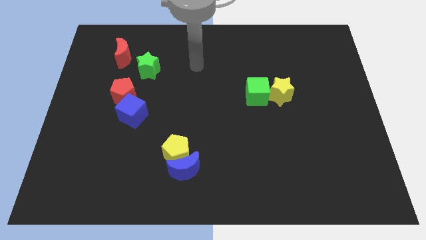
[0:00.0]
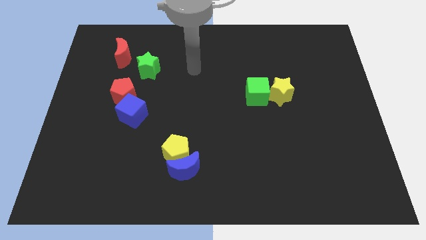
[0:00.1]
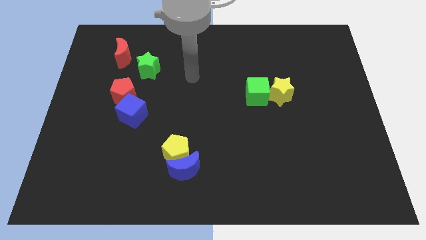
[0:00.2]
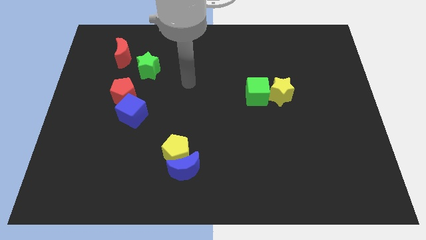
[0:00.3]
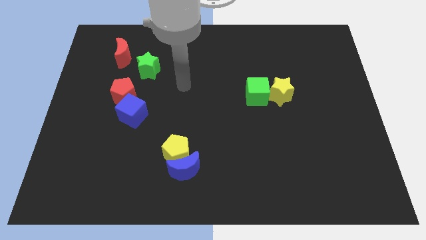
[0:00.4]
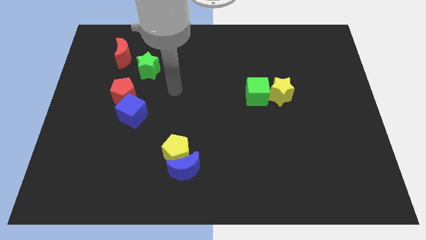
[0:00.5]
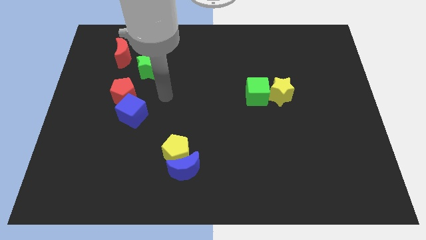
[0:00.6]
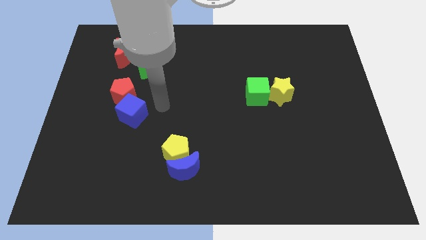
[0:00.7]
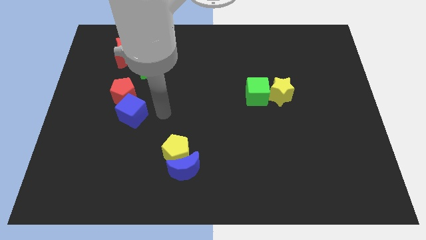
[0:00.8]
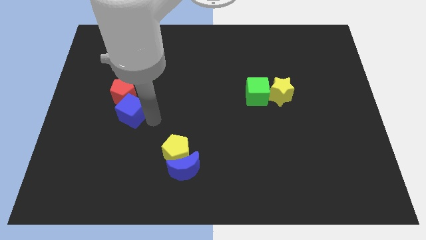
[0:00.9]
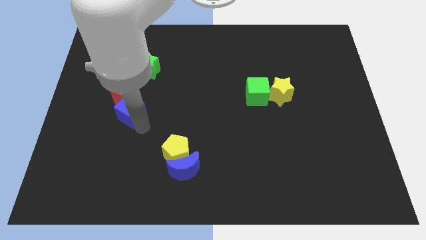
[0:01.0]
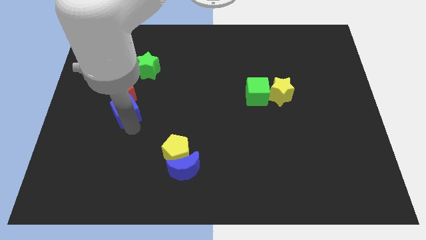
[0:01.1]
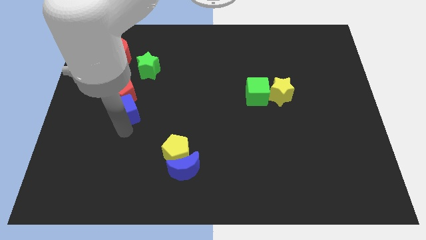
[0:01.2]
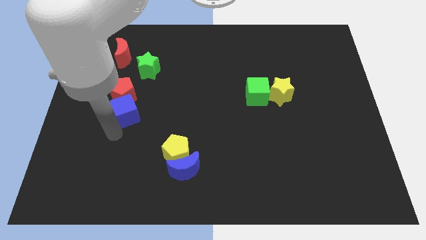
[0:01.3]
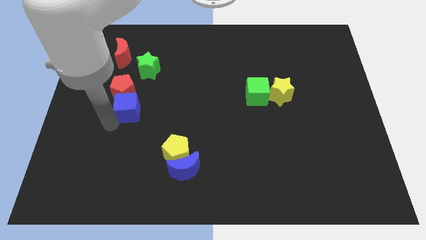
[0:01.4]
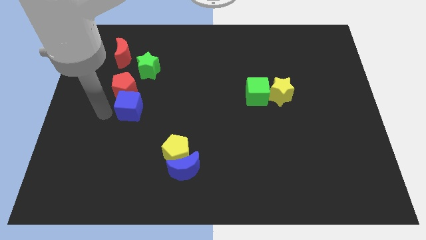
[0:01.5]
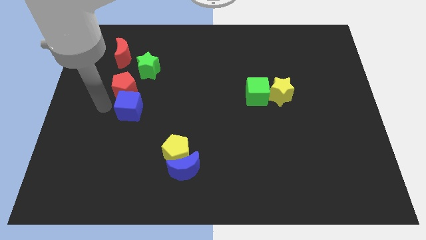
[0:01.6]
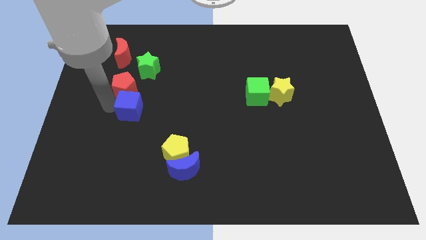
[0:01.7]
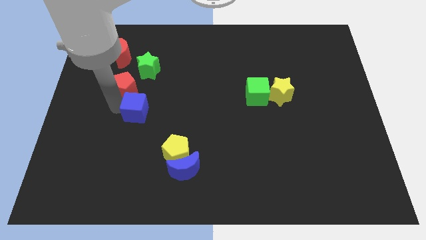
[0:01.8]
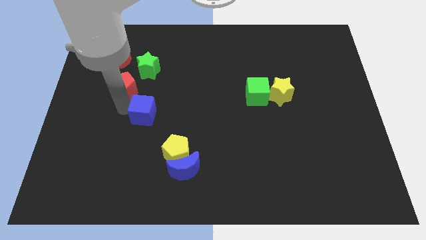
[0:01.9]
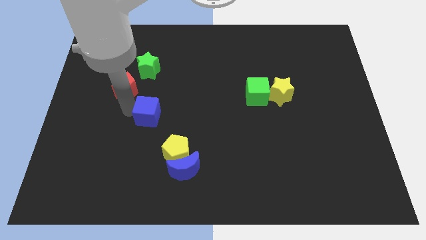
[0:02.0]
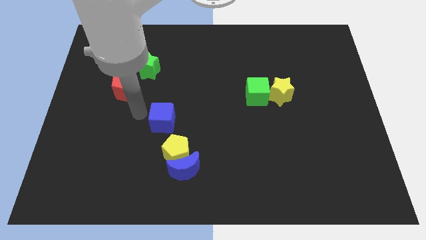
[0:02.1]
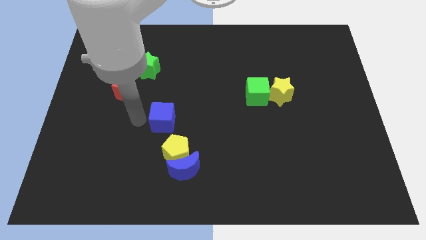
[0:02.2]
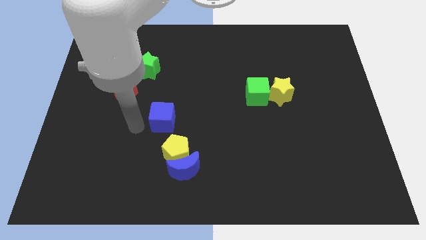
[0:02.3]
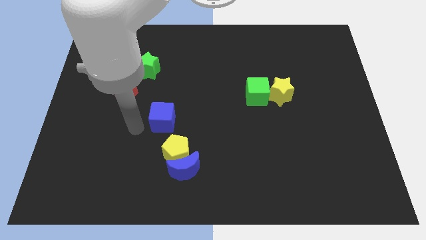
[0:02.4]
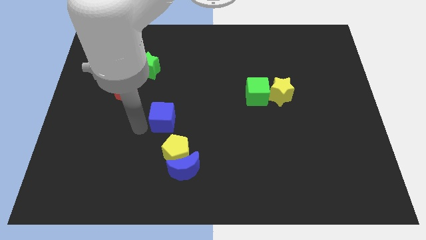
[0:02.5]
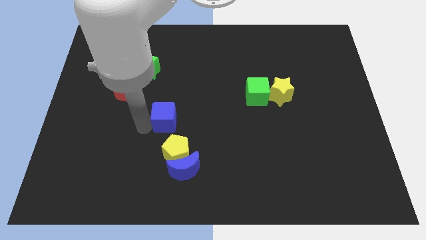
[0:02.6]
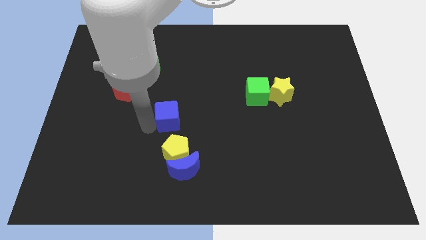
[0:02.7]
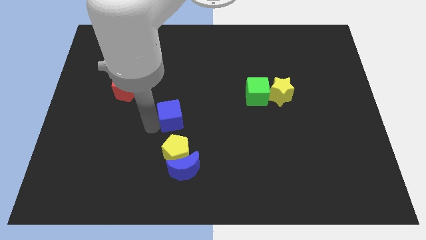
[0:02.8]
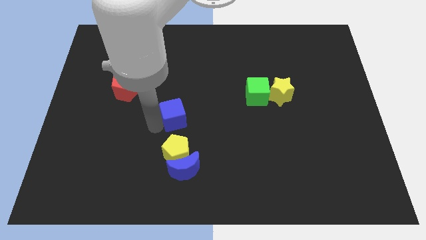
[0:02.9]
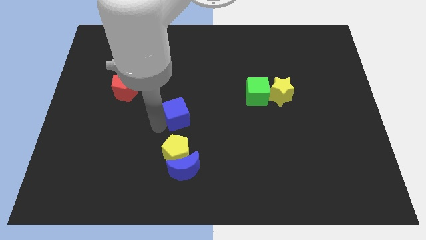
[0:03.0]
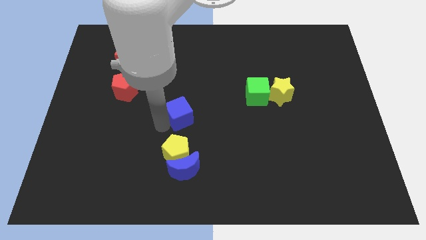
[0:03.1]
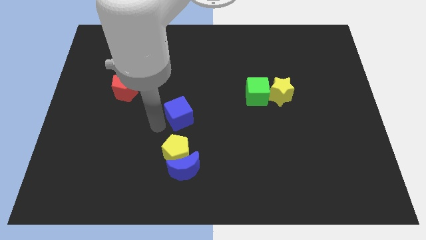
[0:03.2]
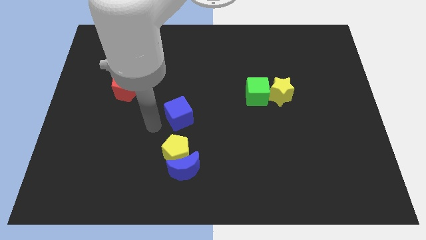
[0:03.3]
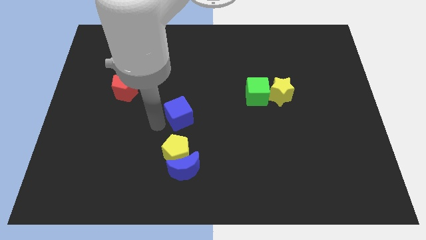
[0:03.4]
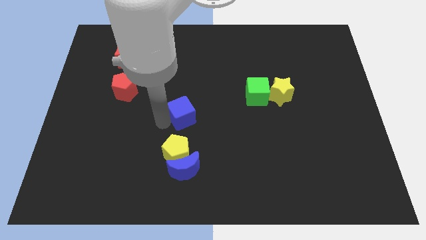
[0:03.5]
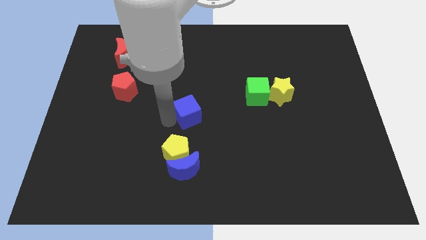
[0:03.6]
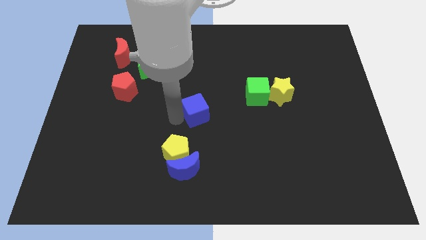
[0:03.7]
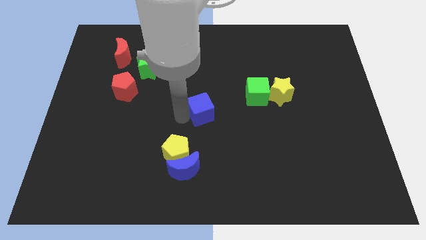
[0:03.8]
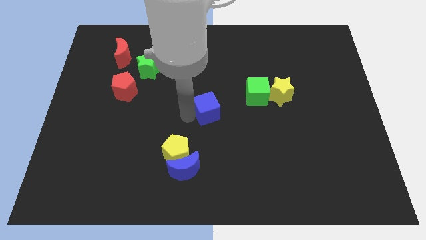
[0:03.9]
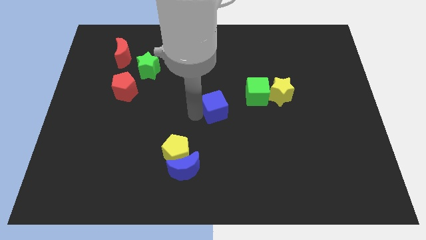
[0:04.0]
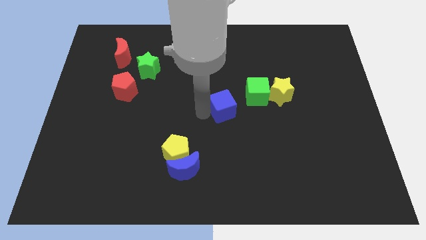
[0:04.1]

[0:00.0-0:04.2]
push the blue cube right

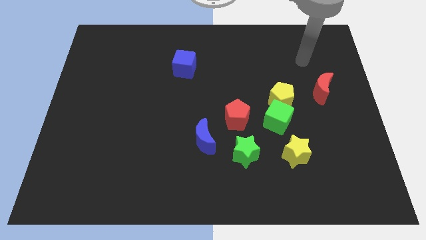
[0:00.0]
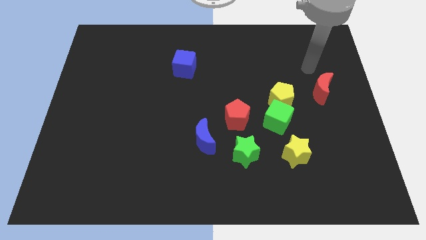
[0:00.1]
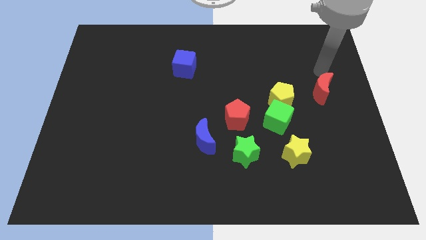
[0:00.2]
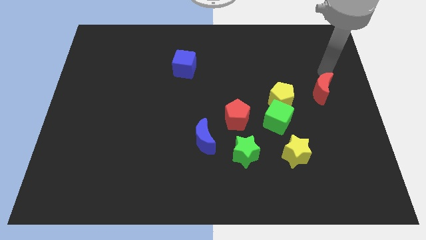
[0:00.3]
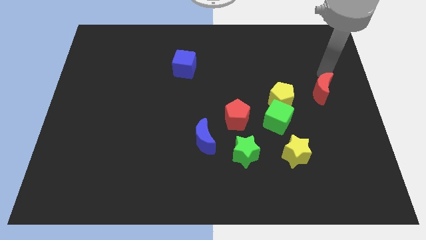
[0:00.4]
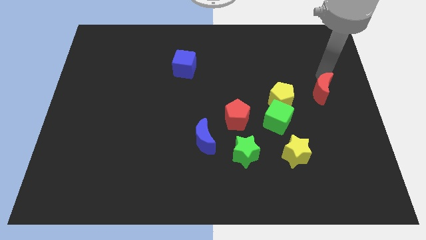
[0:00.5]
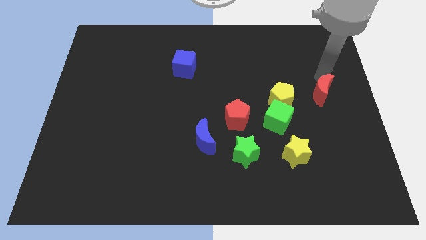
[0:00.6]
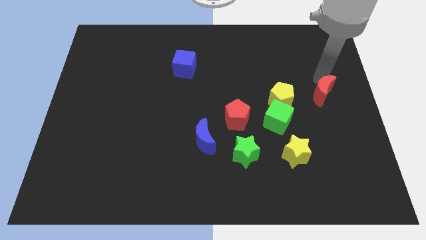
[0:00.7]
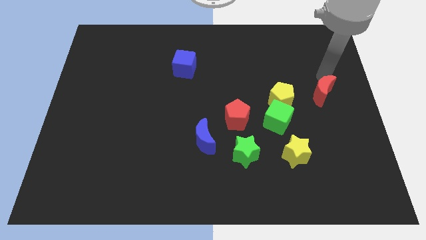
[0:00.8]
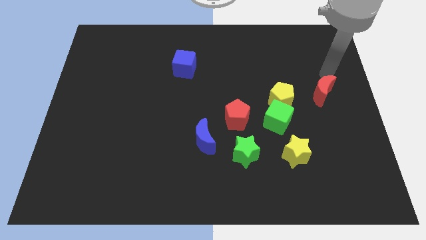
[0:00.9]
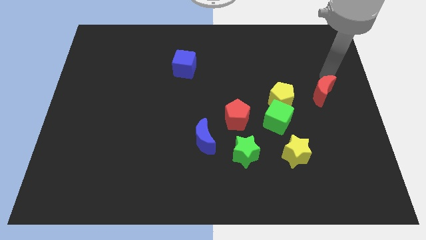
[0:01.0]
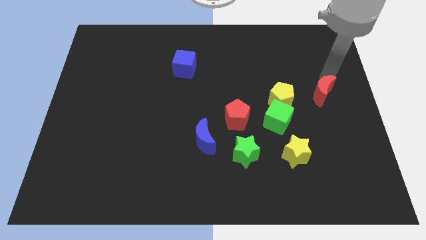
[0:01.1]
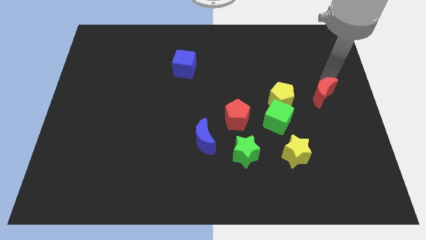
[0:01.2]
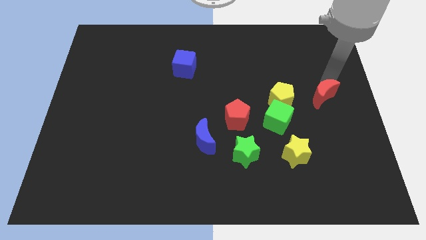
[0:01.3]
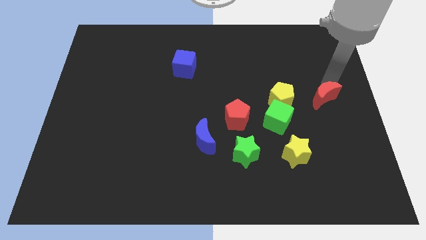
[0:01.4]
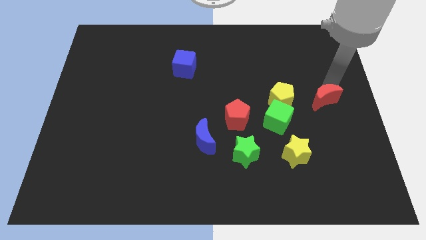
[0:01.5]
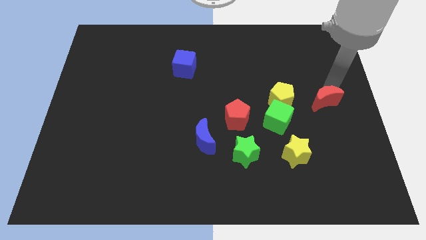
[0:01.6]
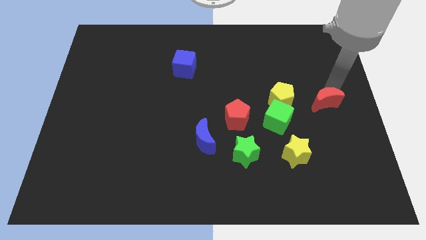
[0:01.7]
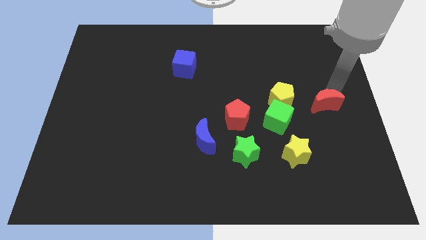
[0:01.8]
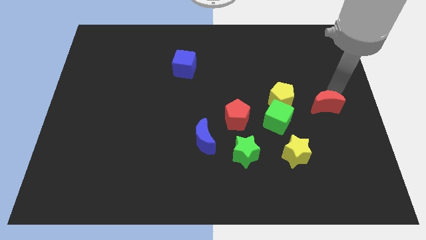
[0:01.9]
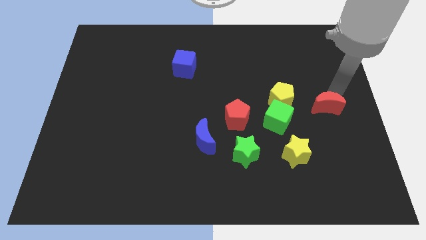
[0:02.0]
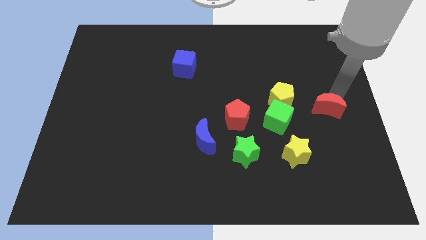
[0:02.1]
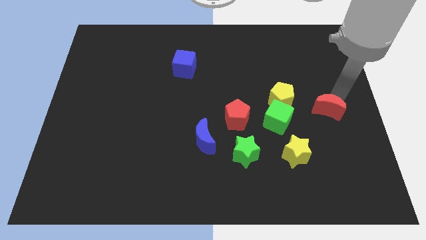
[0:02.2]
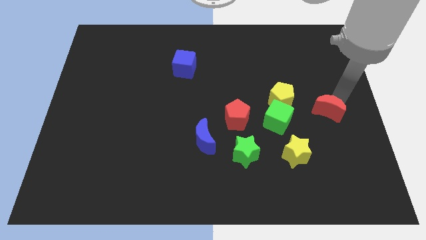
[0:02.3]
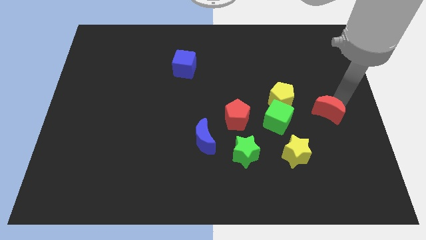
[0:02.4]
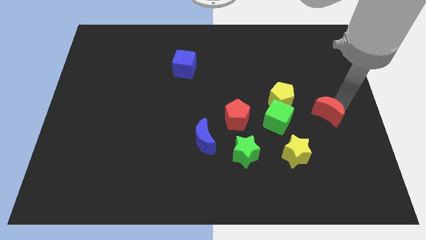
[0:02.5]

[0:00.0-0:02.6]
slide the red moon down somewhat

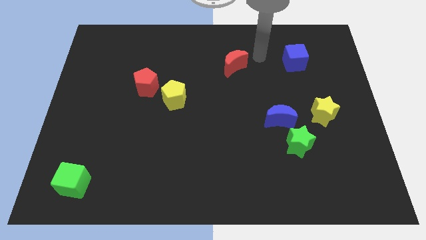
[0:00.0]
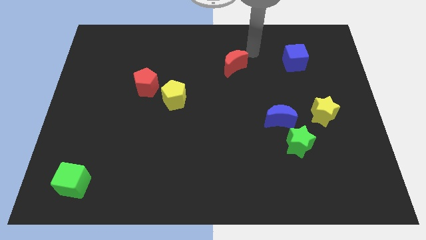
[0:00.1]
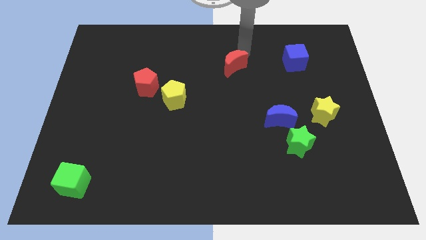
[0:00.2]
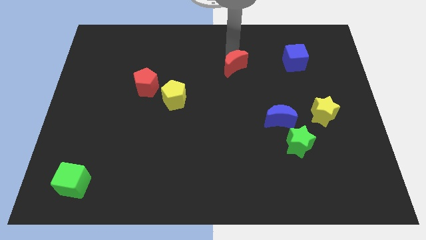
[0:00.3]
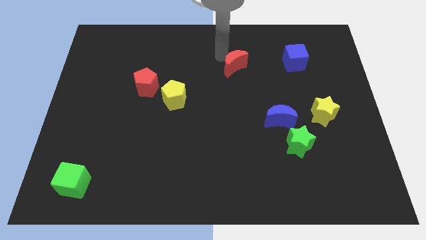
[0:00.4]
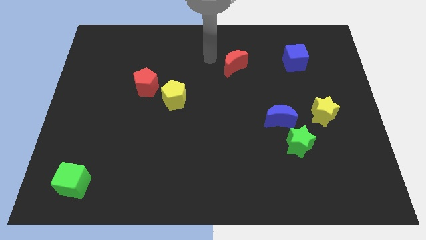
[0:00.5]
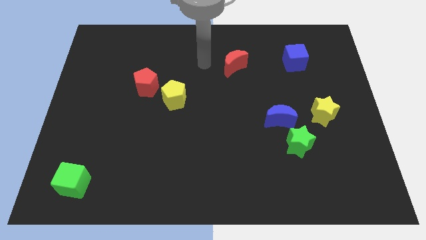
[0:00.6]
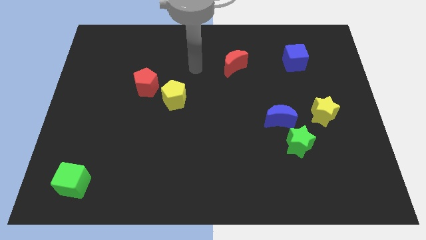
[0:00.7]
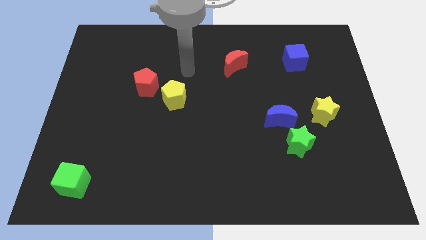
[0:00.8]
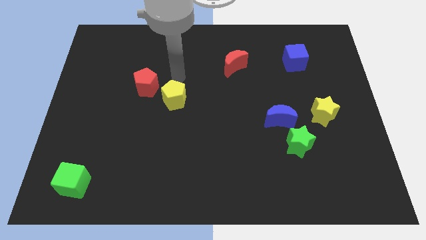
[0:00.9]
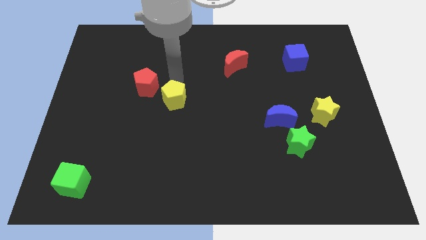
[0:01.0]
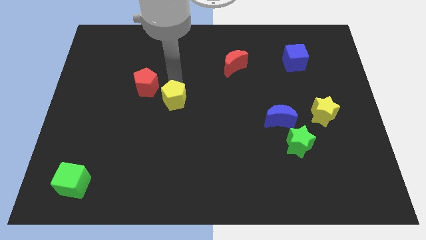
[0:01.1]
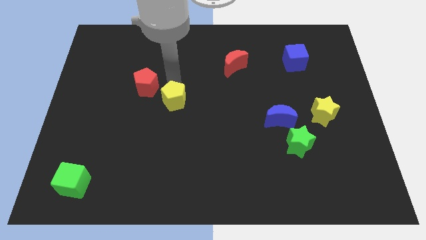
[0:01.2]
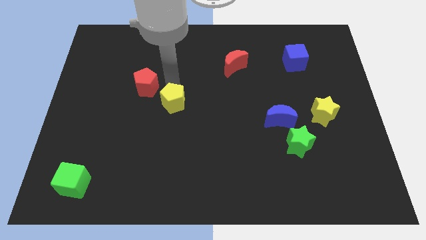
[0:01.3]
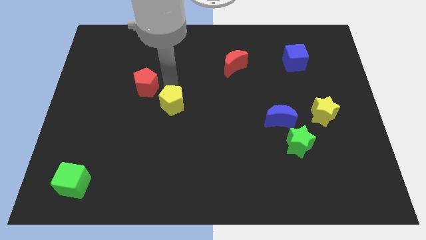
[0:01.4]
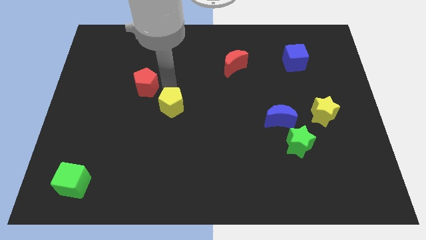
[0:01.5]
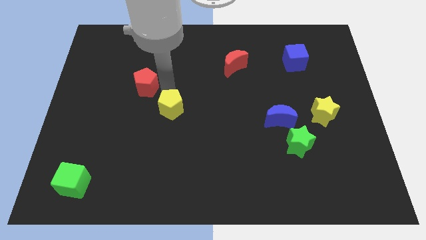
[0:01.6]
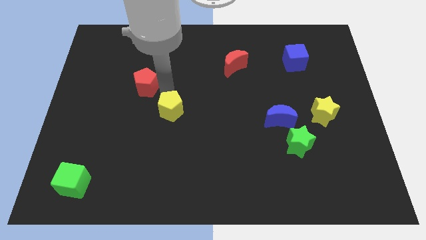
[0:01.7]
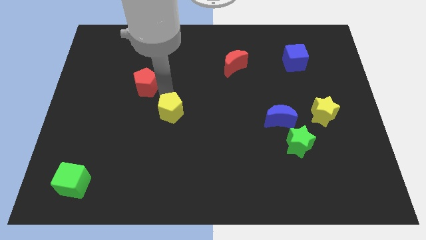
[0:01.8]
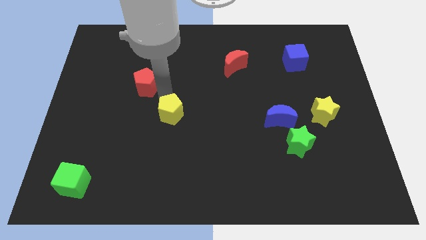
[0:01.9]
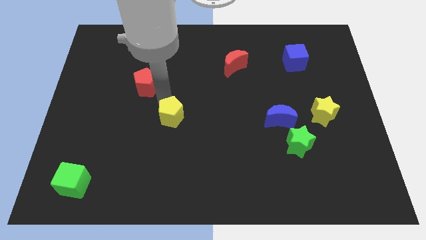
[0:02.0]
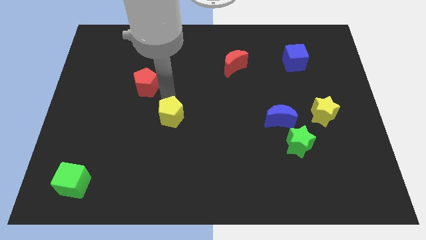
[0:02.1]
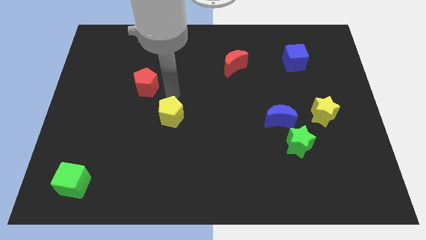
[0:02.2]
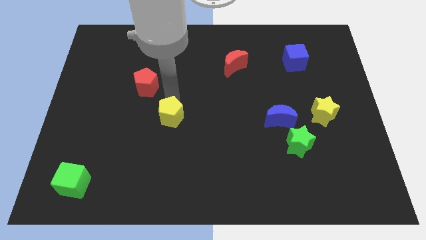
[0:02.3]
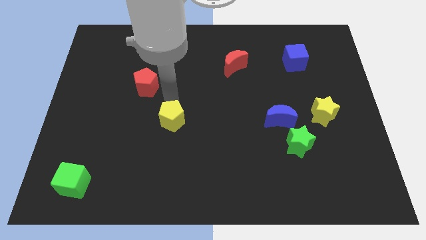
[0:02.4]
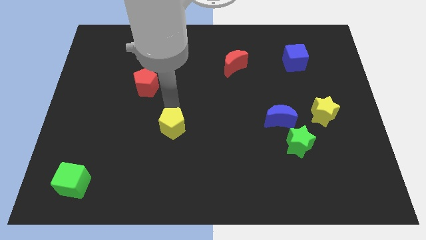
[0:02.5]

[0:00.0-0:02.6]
slide the yellow pentagon downwards a bit
